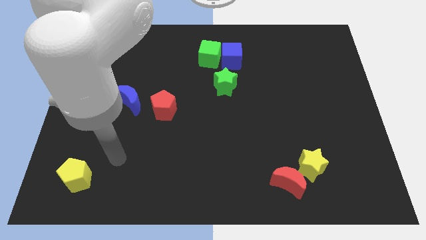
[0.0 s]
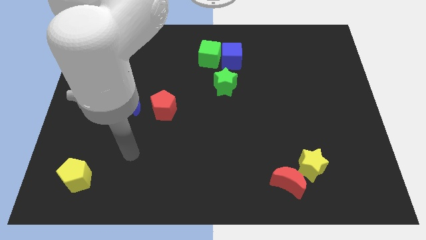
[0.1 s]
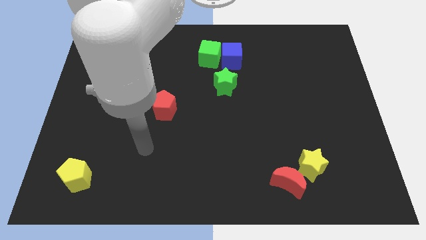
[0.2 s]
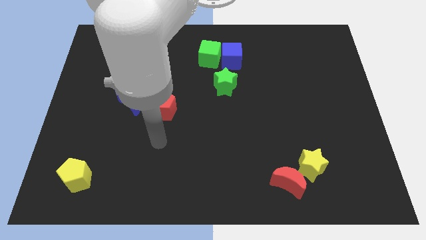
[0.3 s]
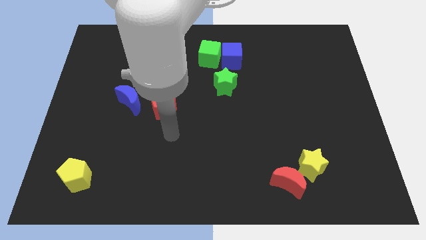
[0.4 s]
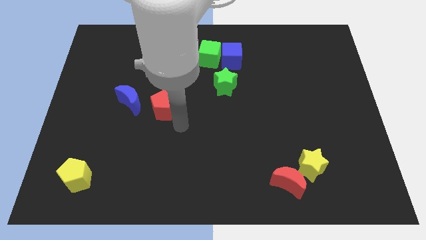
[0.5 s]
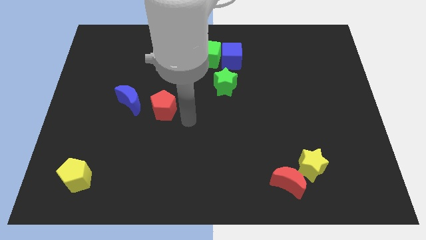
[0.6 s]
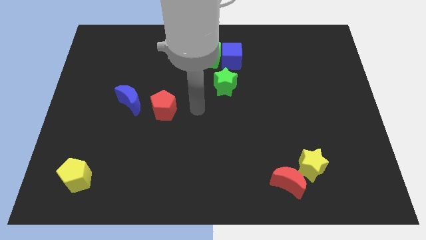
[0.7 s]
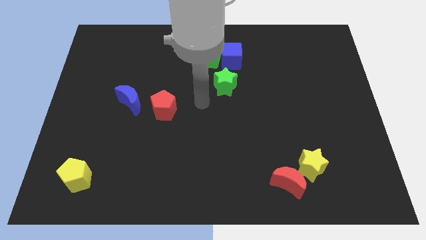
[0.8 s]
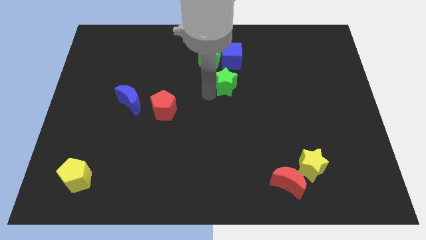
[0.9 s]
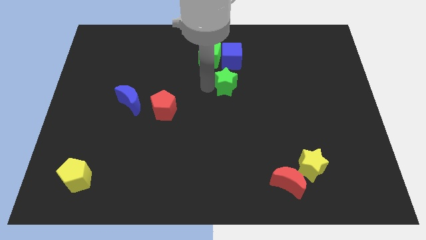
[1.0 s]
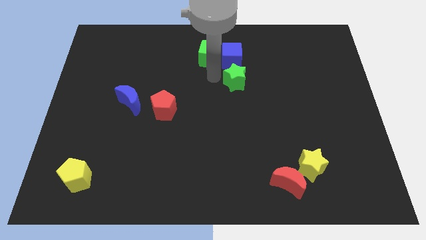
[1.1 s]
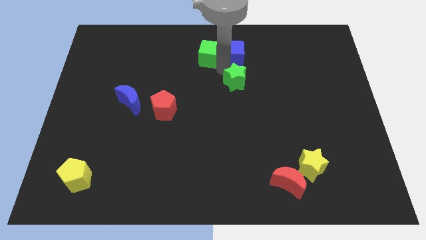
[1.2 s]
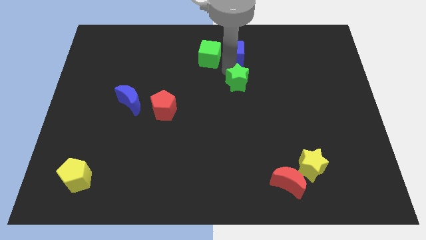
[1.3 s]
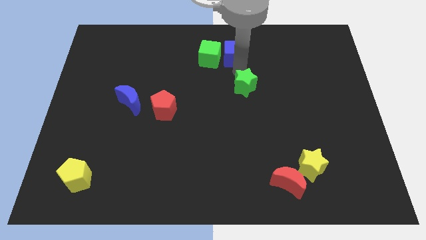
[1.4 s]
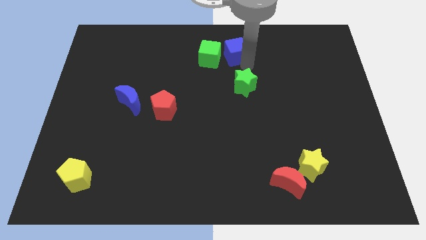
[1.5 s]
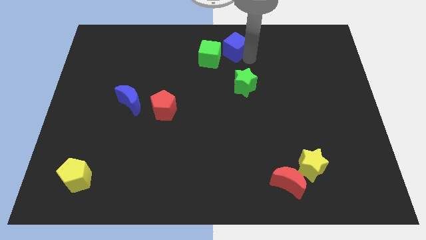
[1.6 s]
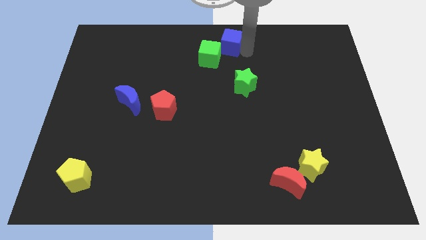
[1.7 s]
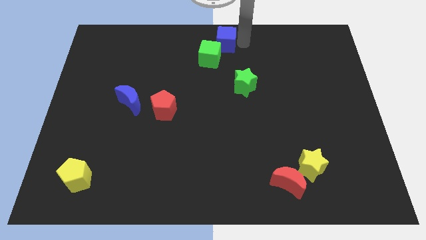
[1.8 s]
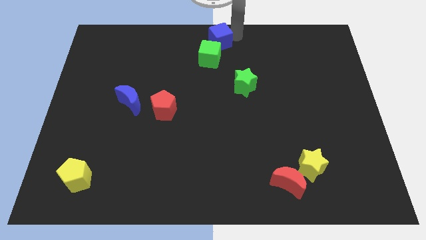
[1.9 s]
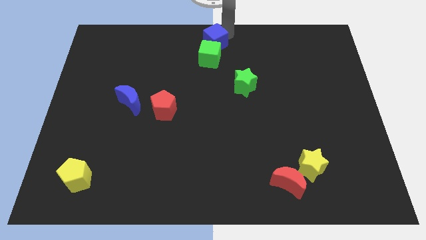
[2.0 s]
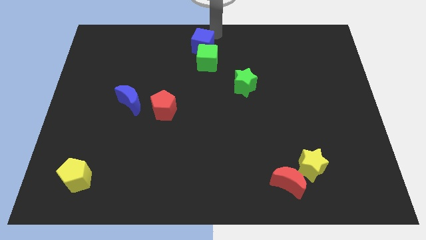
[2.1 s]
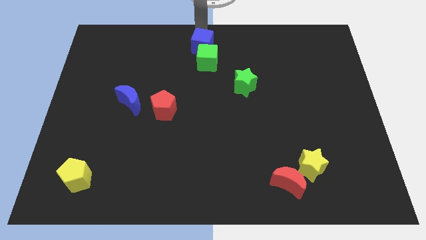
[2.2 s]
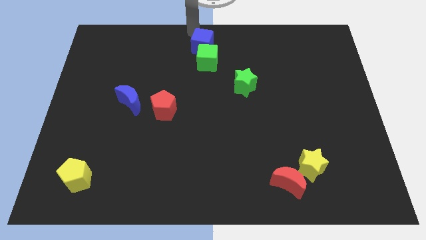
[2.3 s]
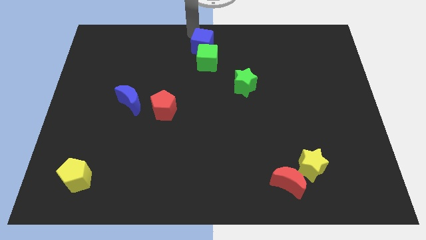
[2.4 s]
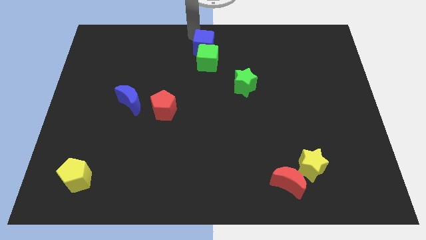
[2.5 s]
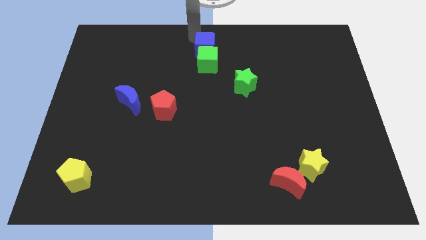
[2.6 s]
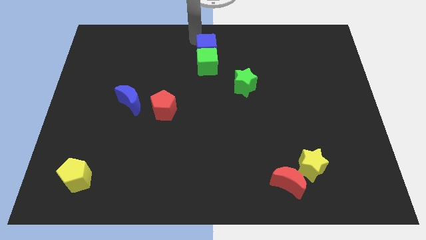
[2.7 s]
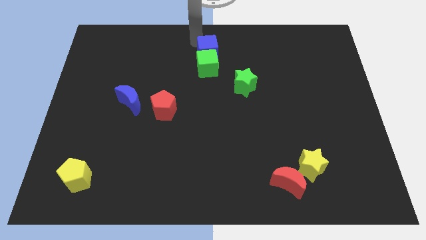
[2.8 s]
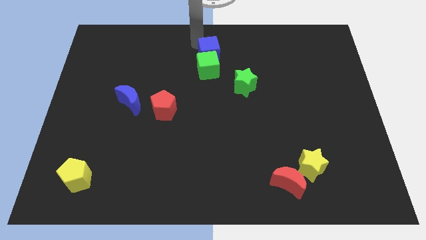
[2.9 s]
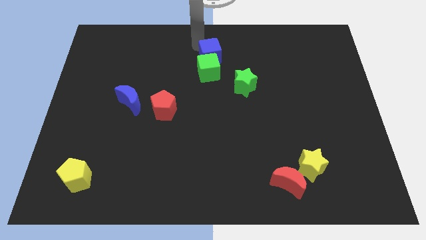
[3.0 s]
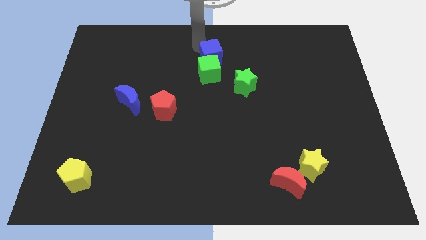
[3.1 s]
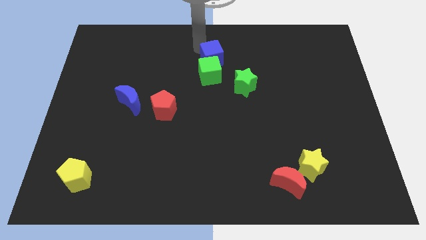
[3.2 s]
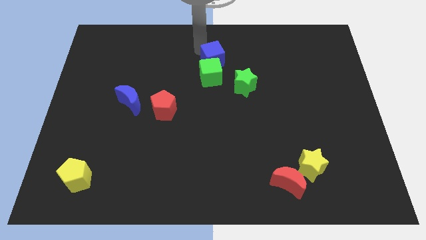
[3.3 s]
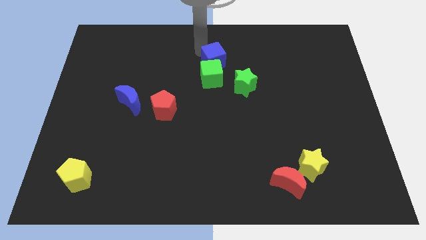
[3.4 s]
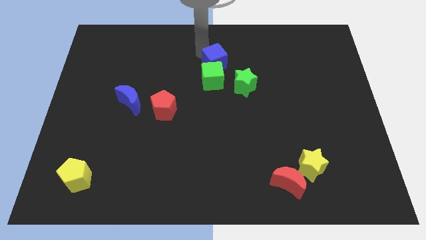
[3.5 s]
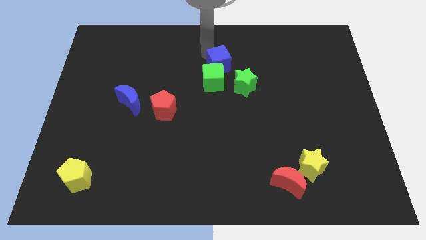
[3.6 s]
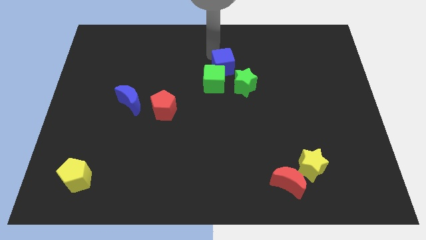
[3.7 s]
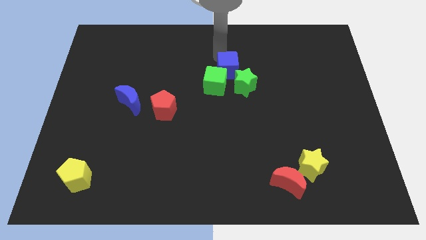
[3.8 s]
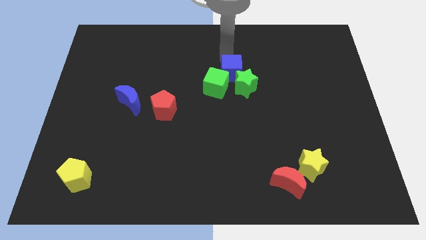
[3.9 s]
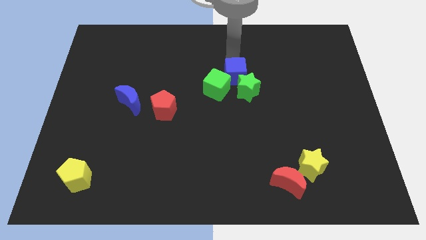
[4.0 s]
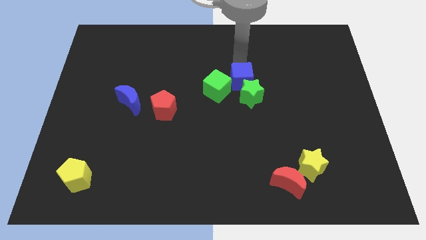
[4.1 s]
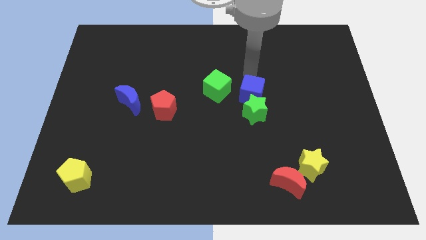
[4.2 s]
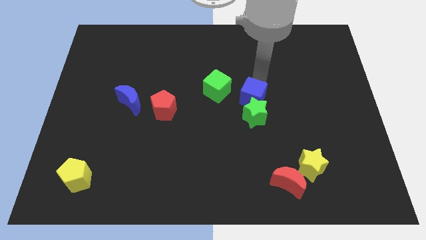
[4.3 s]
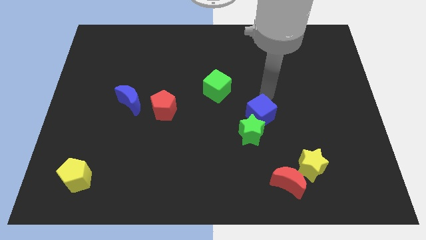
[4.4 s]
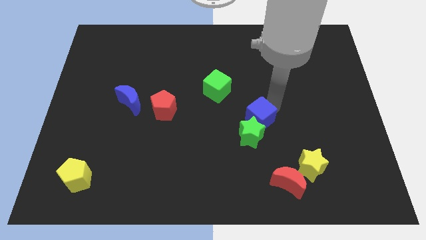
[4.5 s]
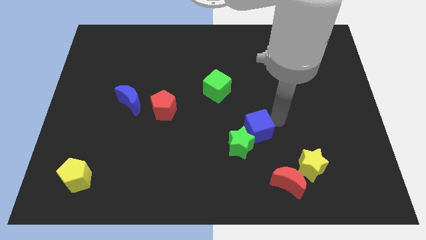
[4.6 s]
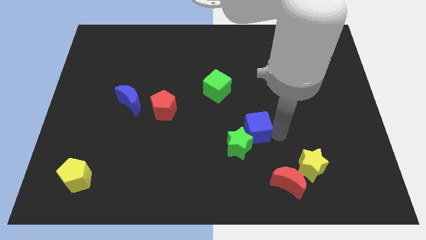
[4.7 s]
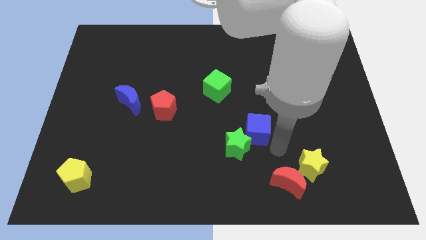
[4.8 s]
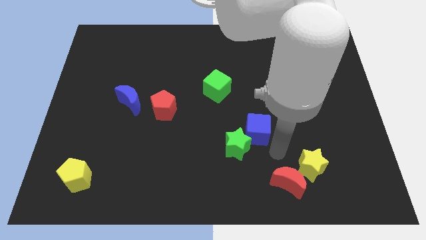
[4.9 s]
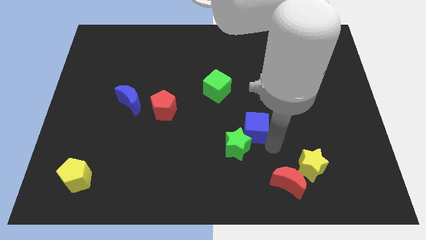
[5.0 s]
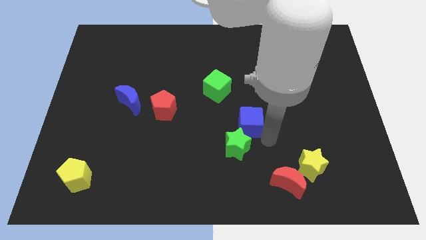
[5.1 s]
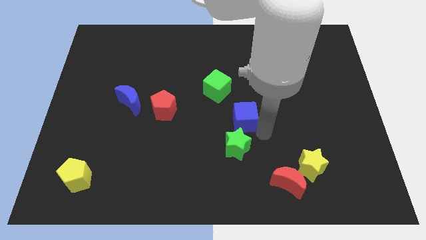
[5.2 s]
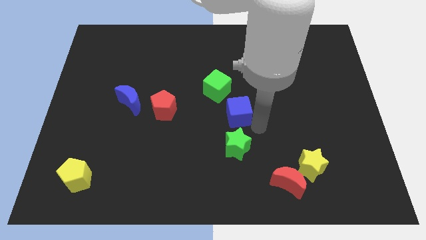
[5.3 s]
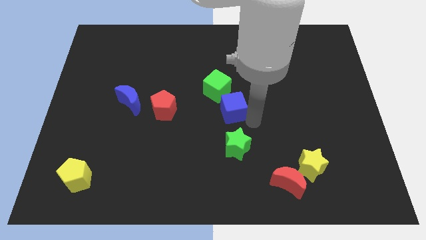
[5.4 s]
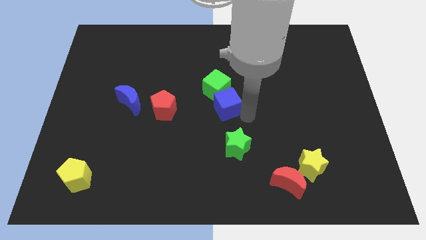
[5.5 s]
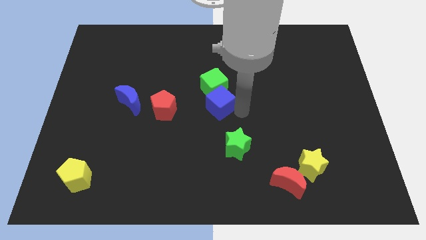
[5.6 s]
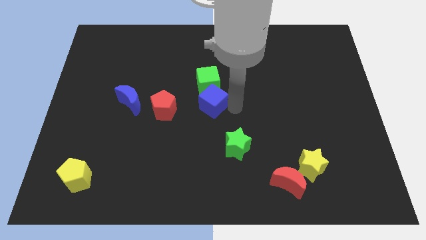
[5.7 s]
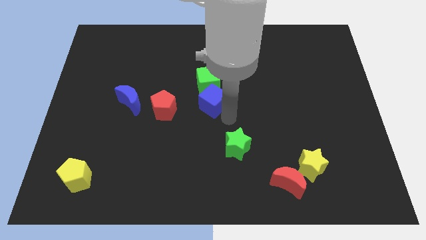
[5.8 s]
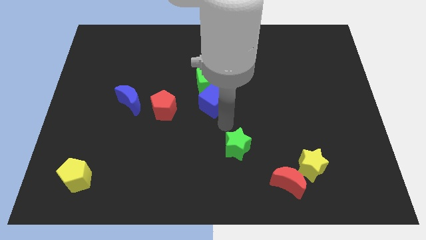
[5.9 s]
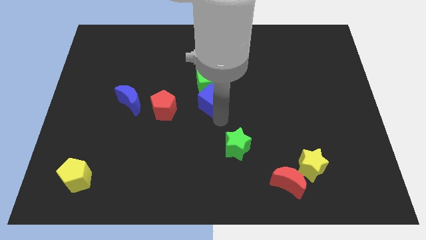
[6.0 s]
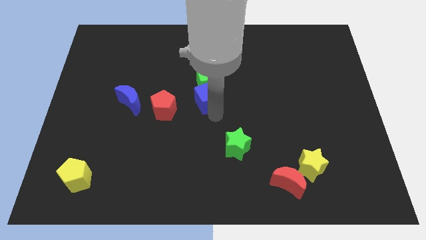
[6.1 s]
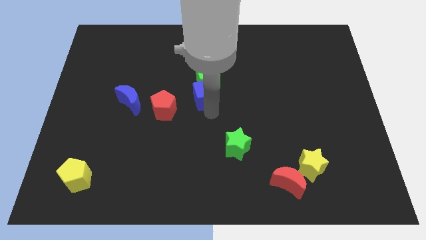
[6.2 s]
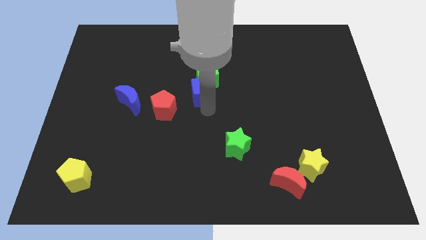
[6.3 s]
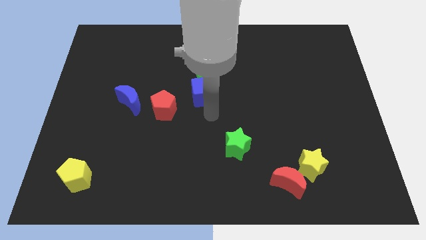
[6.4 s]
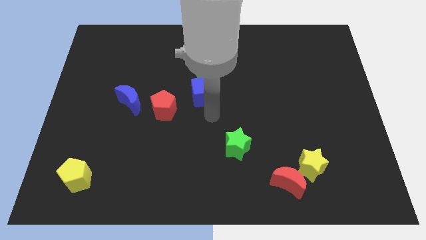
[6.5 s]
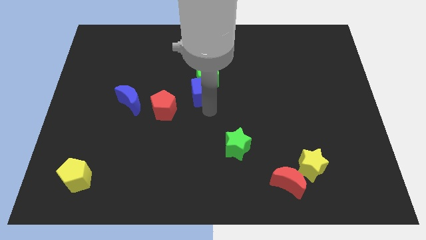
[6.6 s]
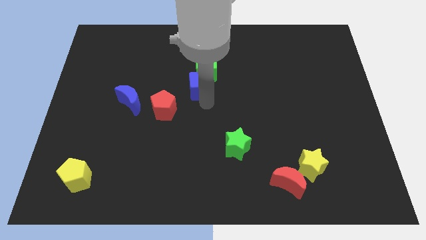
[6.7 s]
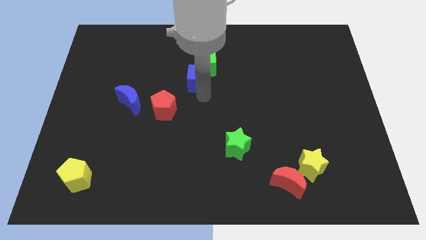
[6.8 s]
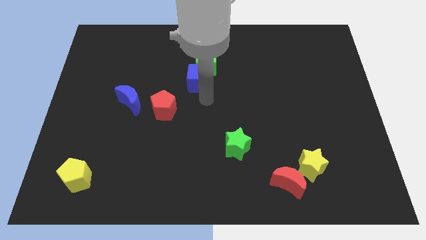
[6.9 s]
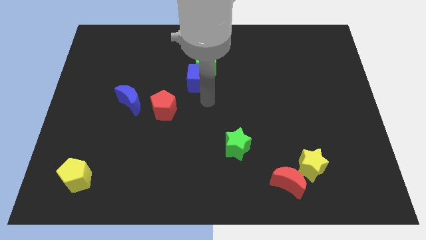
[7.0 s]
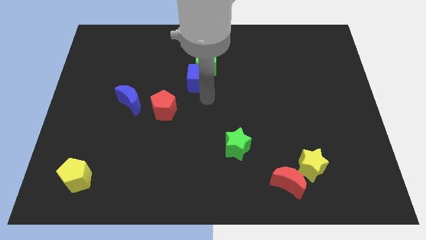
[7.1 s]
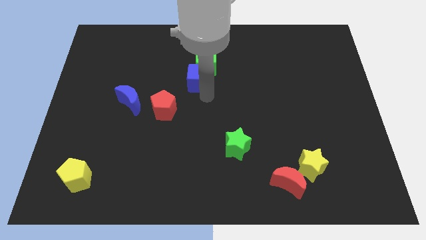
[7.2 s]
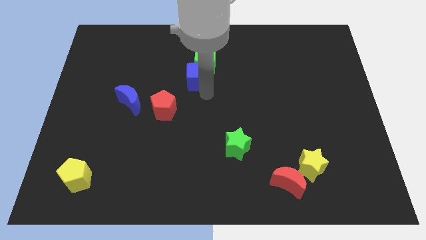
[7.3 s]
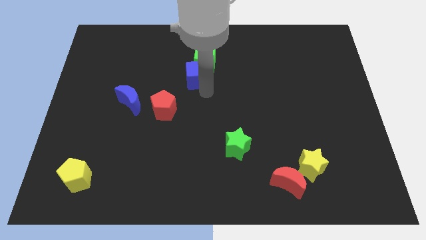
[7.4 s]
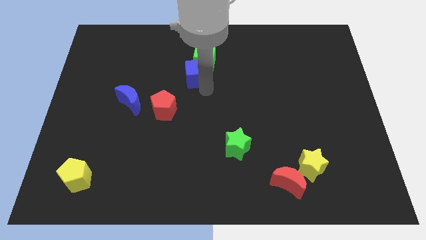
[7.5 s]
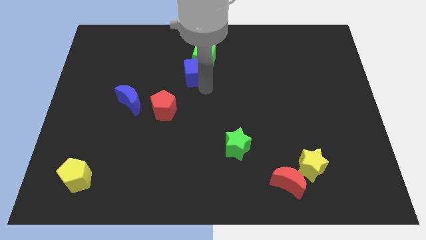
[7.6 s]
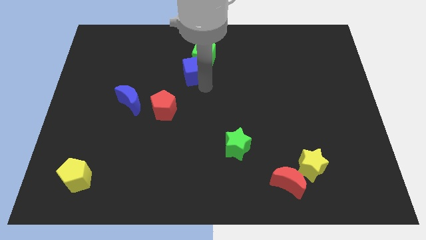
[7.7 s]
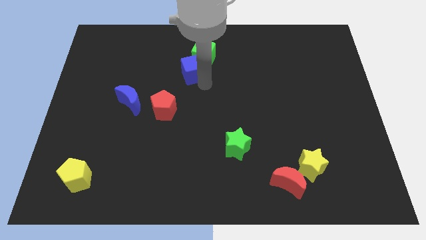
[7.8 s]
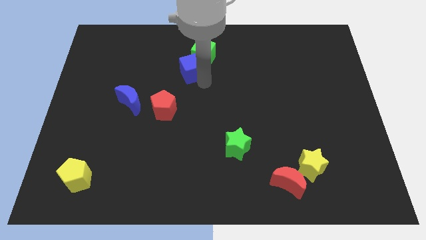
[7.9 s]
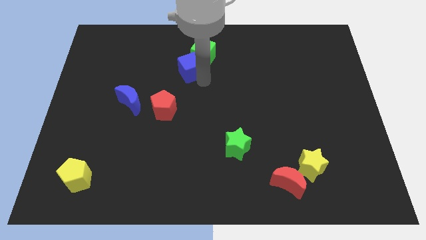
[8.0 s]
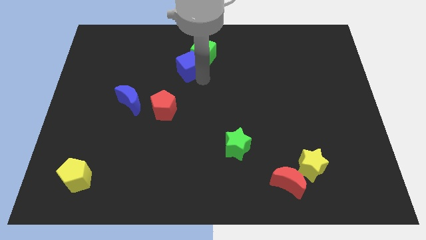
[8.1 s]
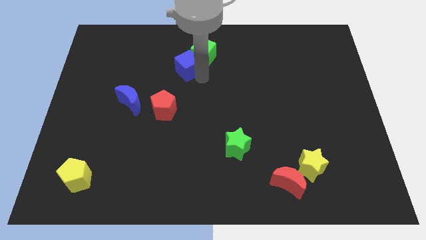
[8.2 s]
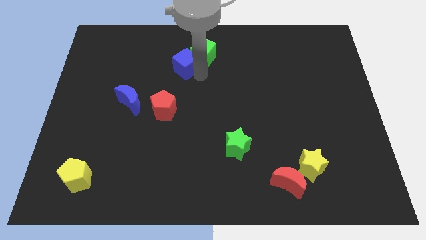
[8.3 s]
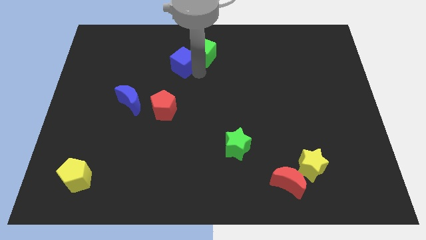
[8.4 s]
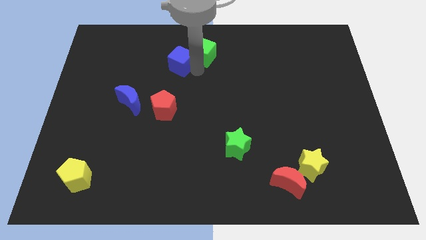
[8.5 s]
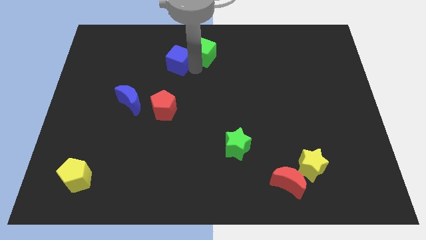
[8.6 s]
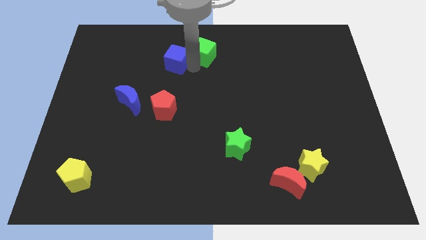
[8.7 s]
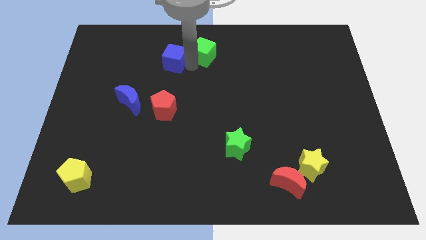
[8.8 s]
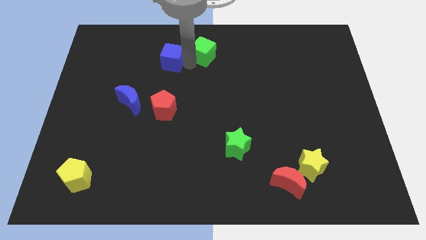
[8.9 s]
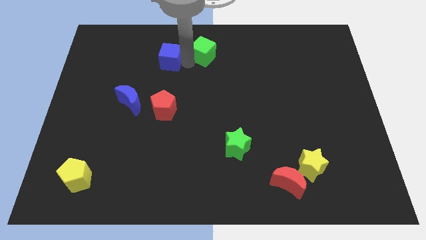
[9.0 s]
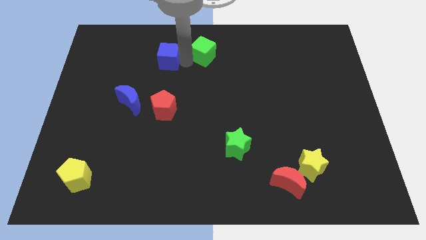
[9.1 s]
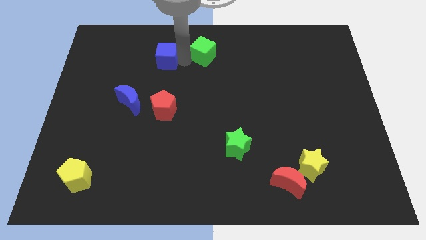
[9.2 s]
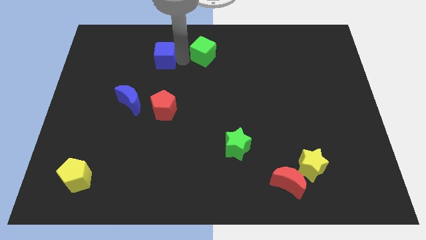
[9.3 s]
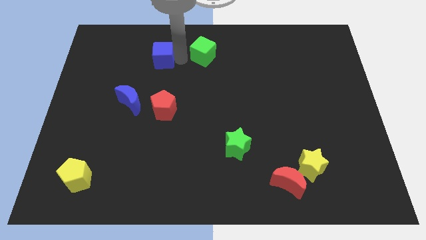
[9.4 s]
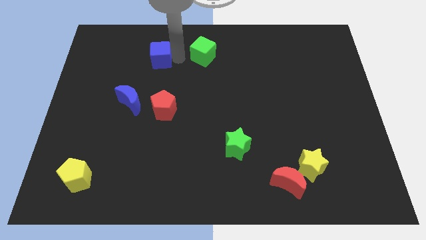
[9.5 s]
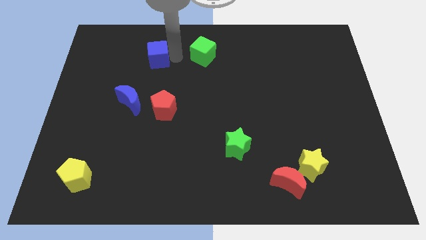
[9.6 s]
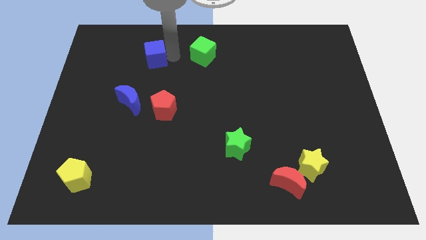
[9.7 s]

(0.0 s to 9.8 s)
move the blue cube to the left
